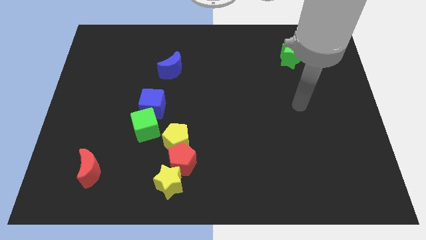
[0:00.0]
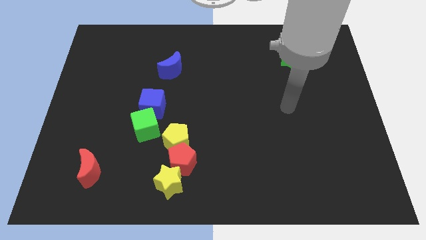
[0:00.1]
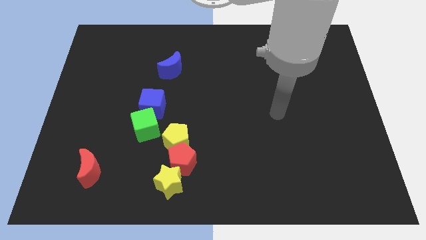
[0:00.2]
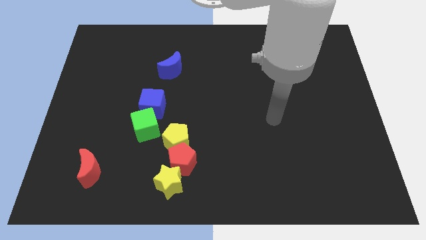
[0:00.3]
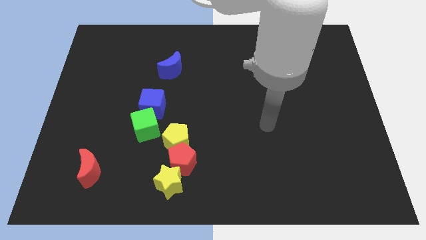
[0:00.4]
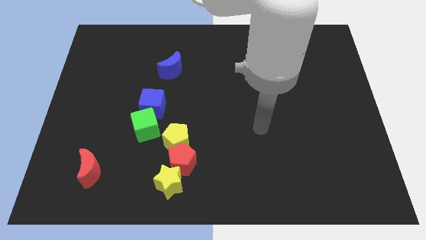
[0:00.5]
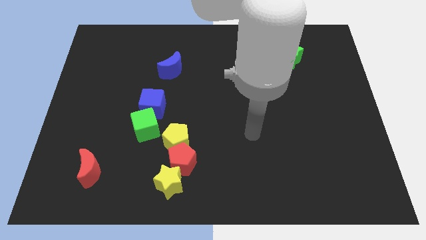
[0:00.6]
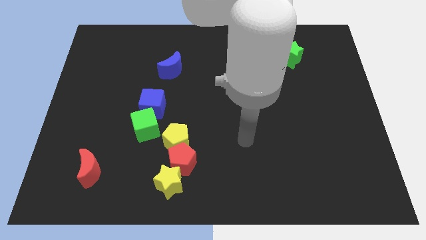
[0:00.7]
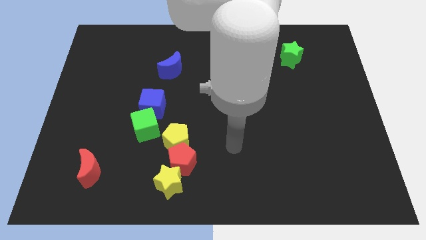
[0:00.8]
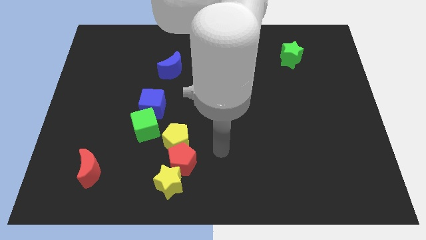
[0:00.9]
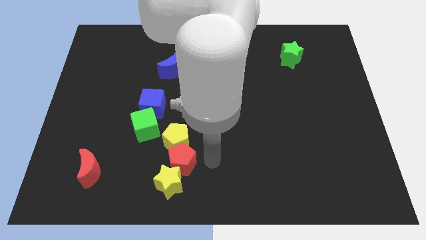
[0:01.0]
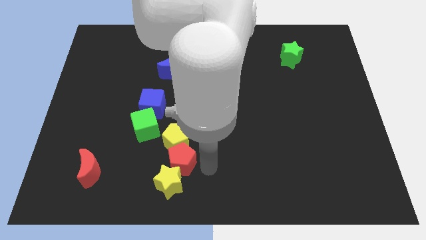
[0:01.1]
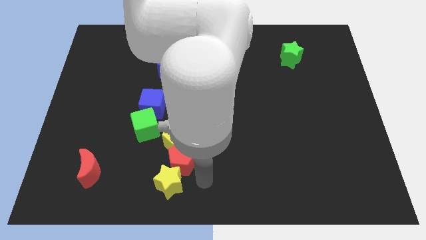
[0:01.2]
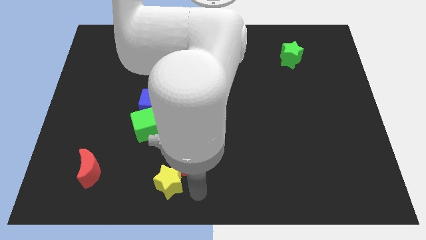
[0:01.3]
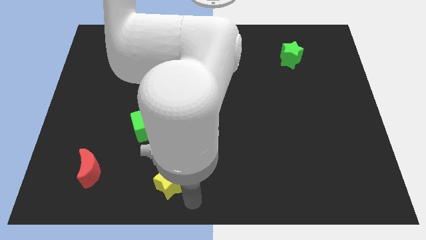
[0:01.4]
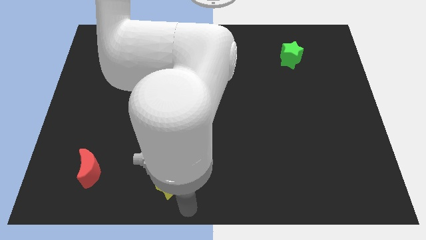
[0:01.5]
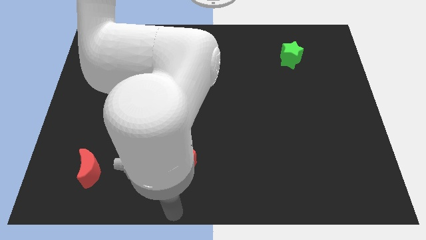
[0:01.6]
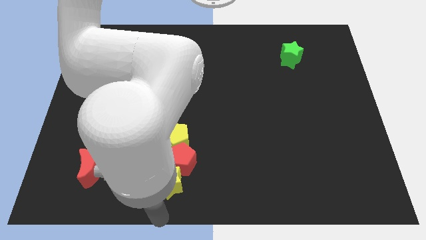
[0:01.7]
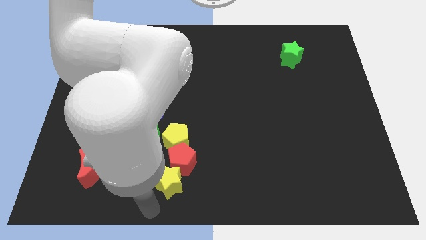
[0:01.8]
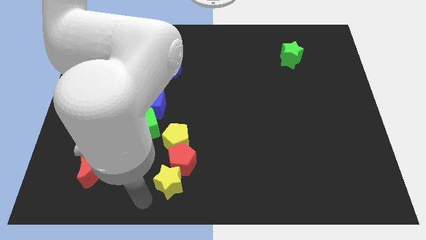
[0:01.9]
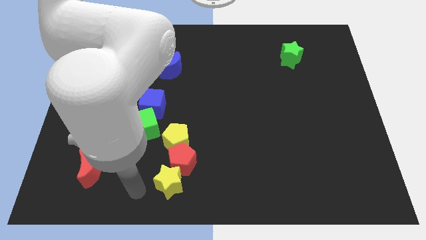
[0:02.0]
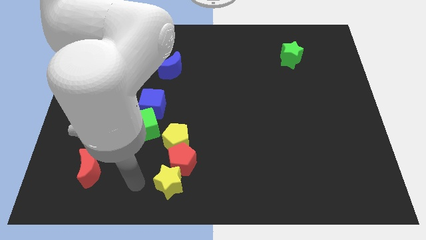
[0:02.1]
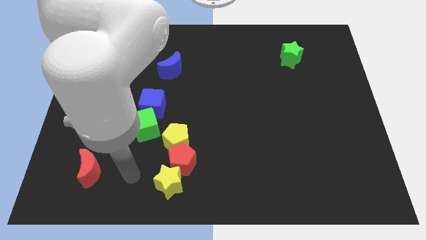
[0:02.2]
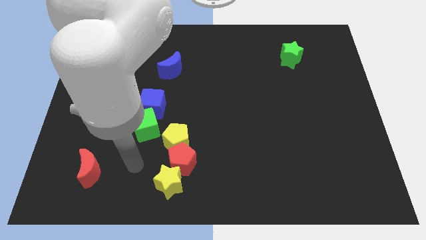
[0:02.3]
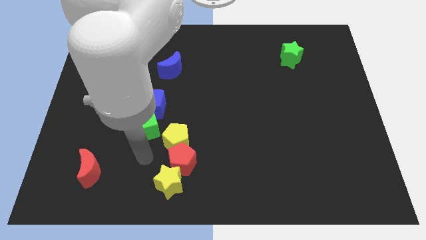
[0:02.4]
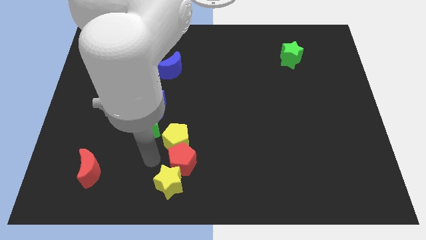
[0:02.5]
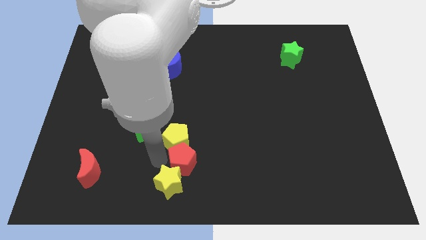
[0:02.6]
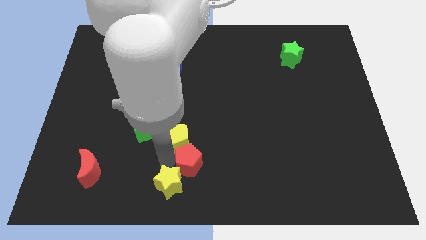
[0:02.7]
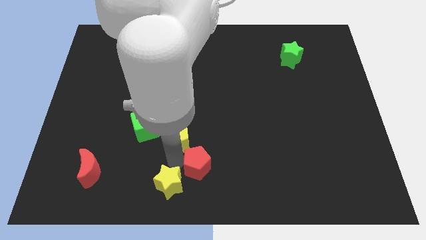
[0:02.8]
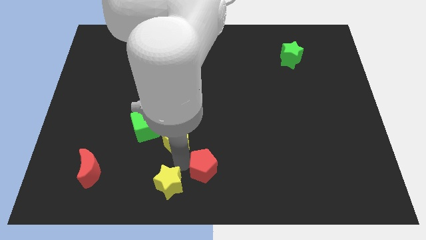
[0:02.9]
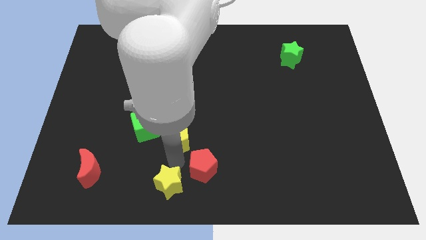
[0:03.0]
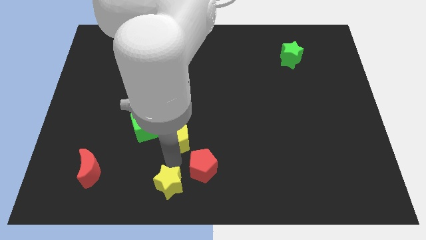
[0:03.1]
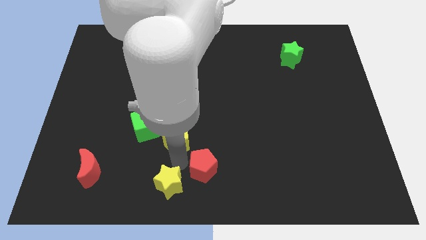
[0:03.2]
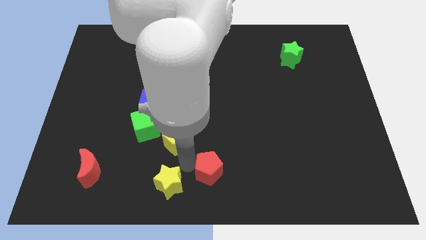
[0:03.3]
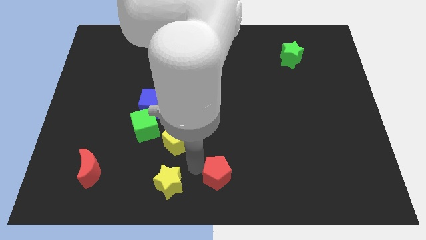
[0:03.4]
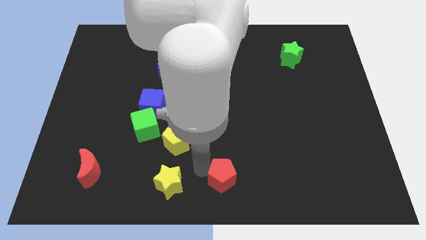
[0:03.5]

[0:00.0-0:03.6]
pull the red pentagon apart from the yellow star and yellow pentagon

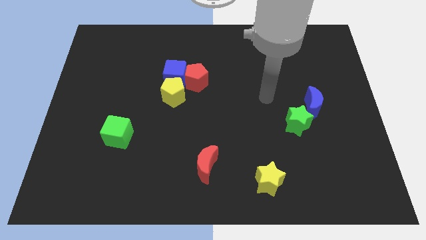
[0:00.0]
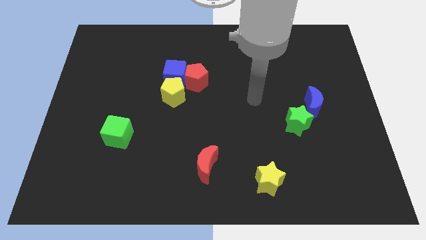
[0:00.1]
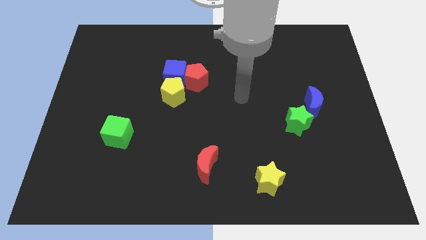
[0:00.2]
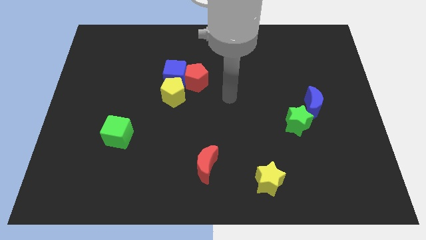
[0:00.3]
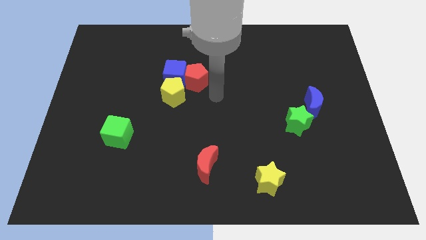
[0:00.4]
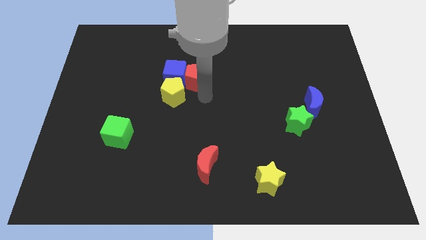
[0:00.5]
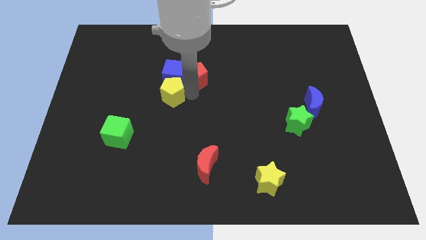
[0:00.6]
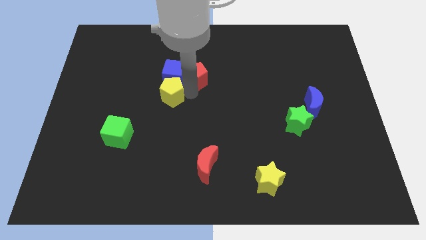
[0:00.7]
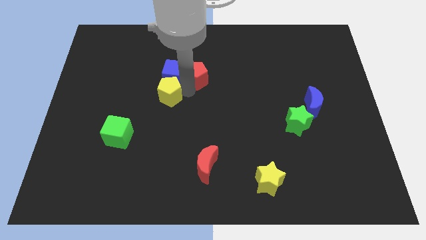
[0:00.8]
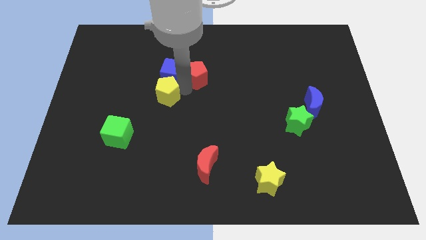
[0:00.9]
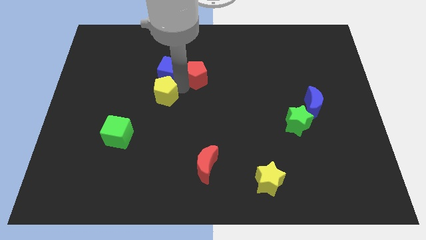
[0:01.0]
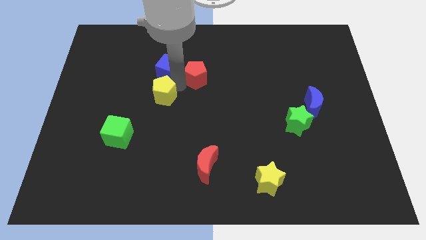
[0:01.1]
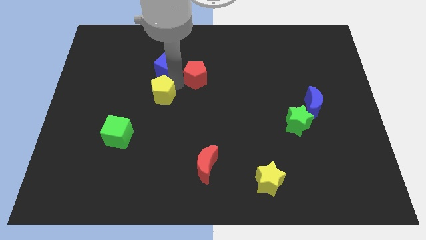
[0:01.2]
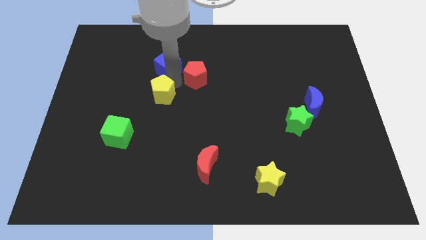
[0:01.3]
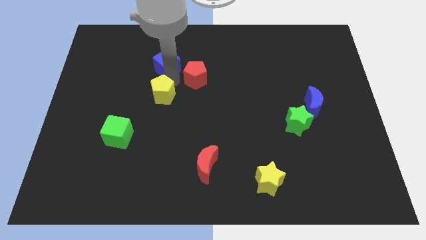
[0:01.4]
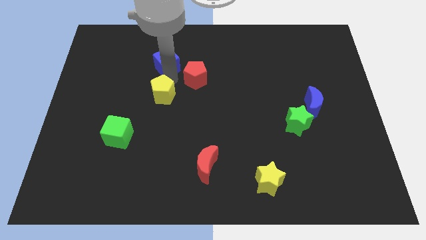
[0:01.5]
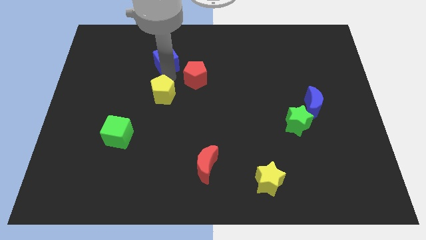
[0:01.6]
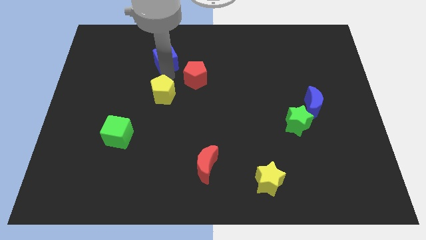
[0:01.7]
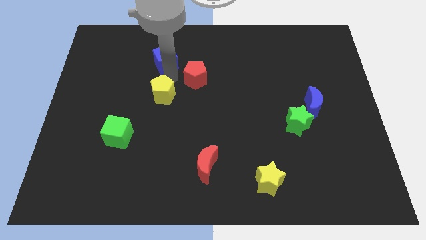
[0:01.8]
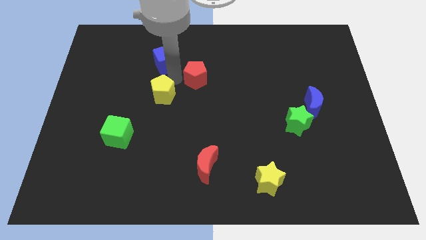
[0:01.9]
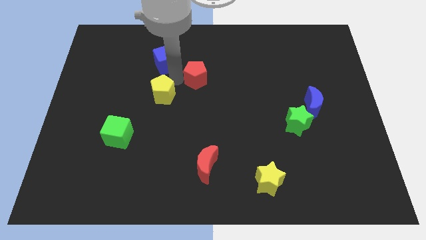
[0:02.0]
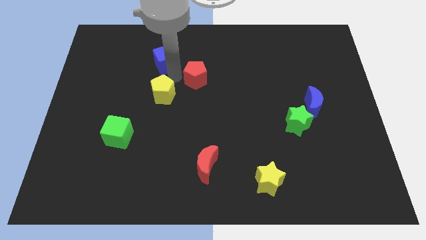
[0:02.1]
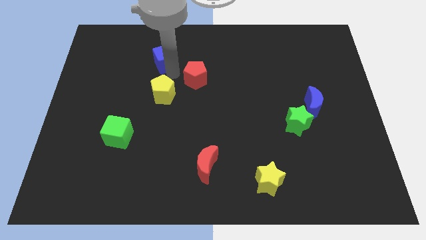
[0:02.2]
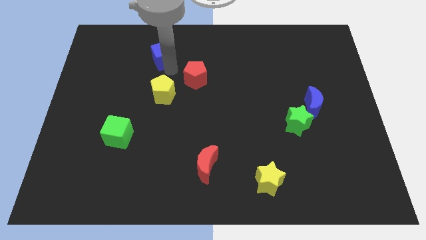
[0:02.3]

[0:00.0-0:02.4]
separate the blue cube from the red pentagon and yellow pentagon

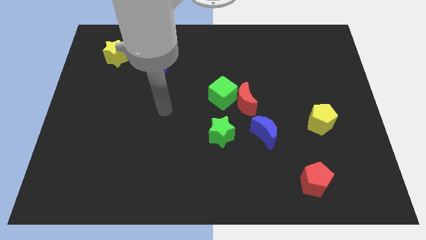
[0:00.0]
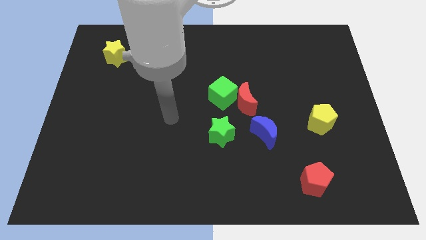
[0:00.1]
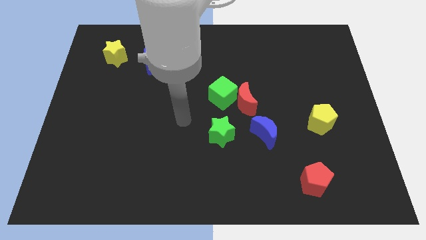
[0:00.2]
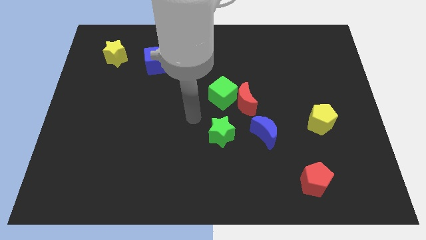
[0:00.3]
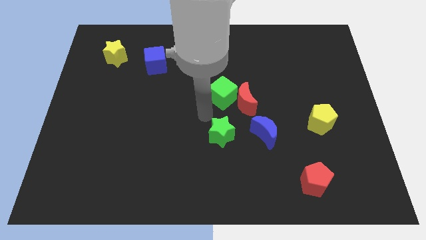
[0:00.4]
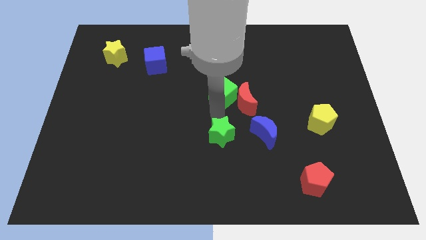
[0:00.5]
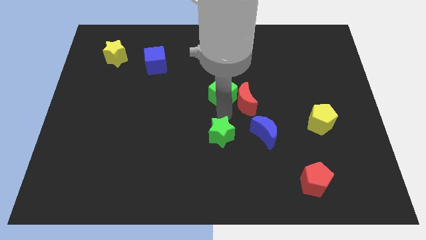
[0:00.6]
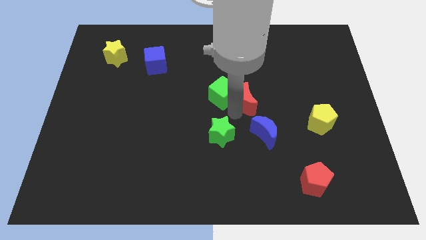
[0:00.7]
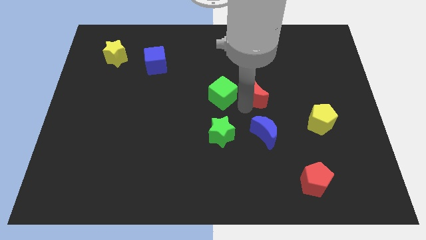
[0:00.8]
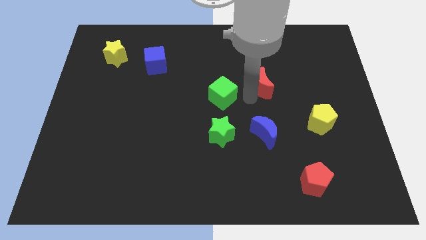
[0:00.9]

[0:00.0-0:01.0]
move the green cube away from the red moon

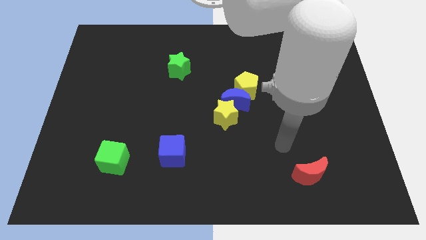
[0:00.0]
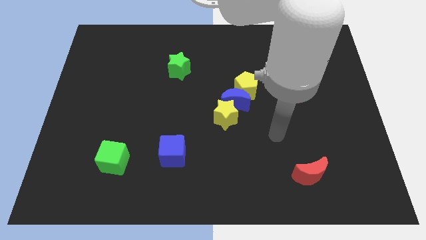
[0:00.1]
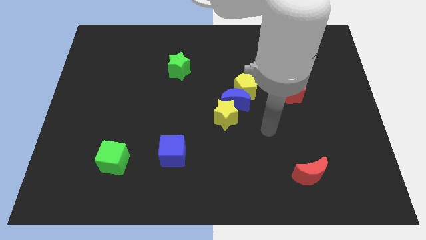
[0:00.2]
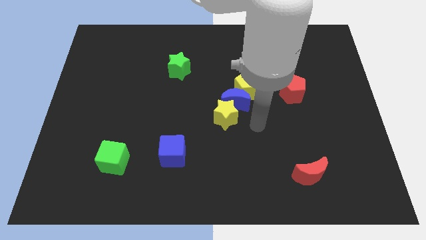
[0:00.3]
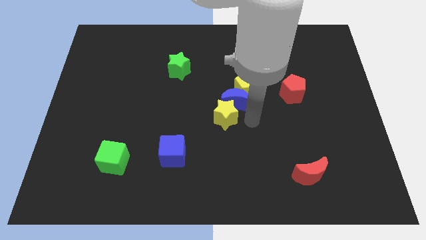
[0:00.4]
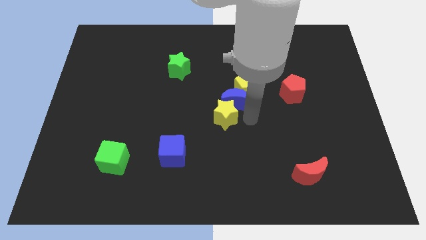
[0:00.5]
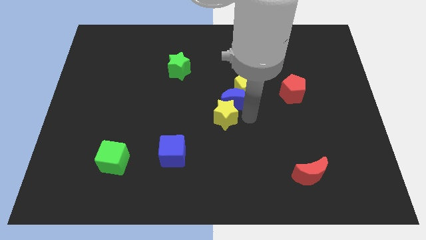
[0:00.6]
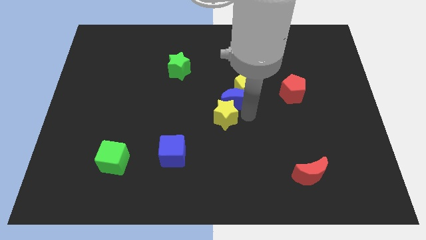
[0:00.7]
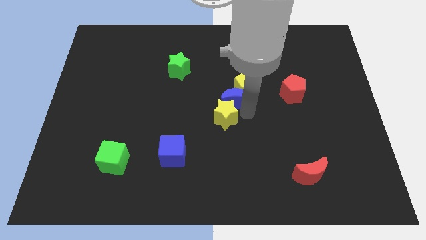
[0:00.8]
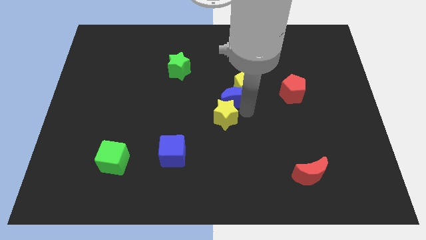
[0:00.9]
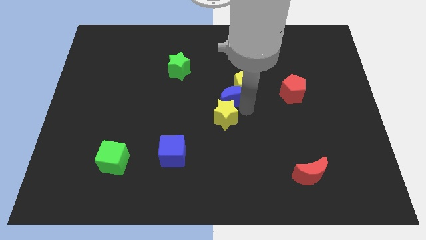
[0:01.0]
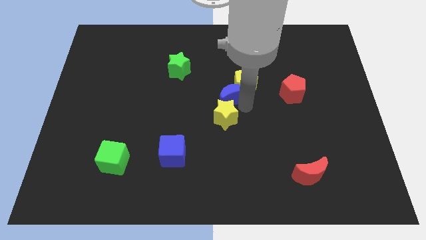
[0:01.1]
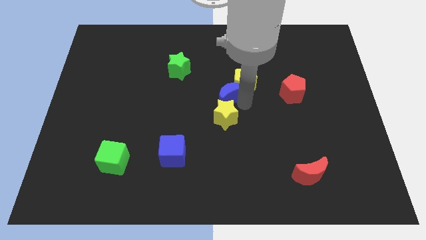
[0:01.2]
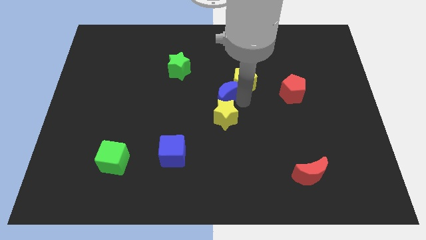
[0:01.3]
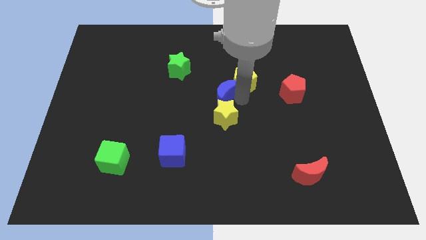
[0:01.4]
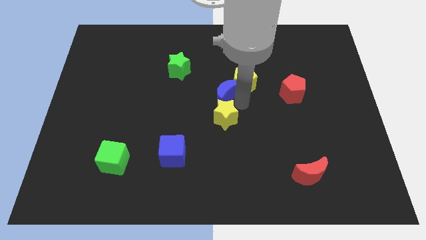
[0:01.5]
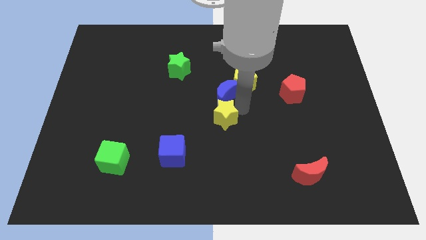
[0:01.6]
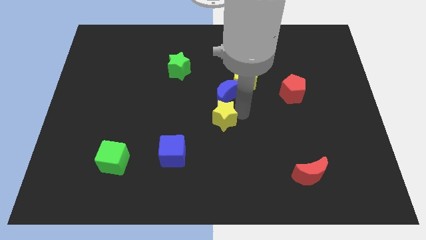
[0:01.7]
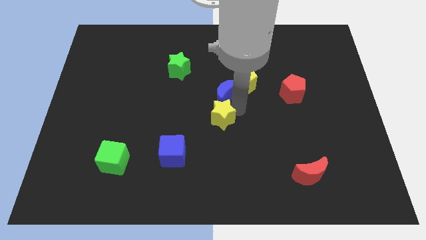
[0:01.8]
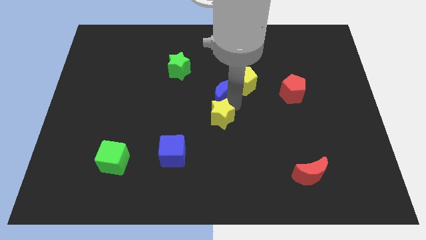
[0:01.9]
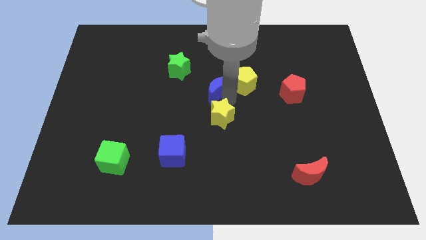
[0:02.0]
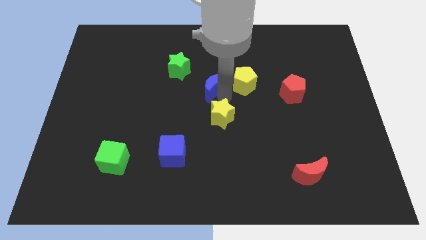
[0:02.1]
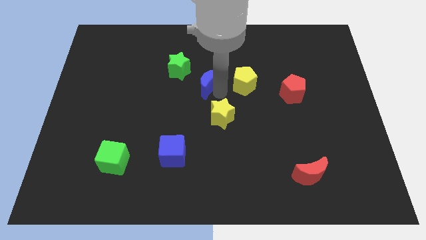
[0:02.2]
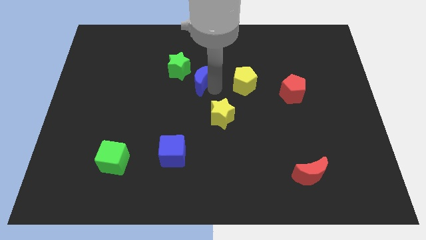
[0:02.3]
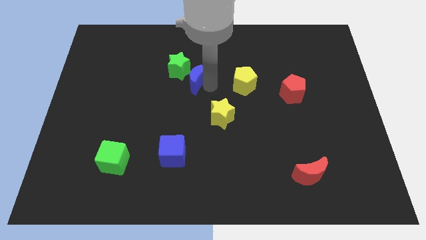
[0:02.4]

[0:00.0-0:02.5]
pull the blue moon apart from the yellow pentagon and yellow star
